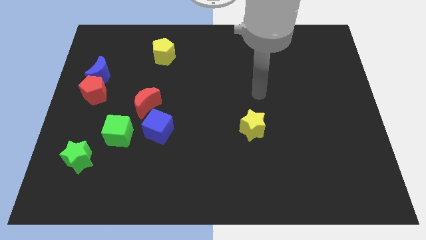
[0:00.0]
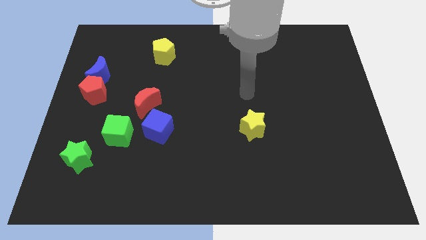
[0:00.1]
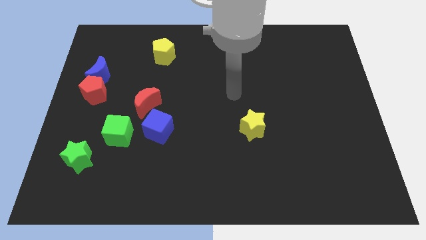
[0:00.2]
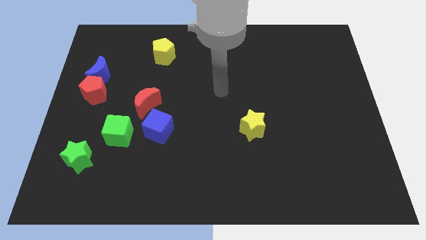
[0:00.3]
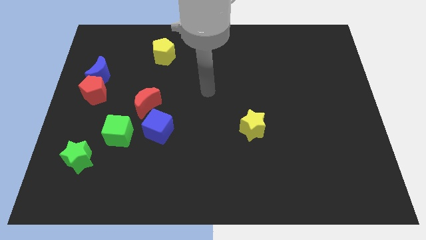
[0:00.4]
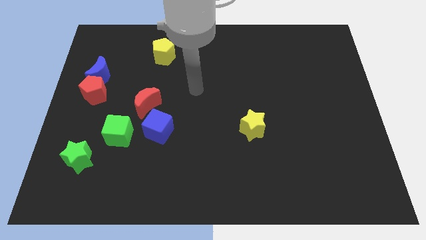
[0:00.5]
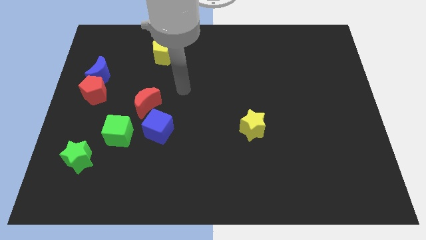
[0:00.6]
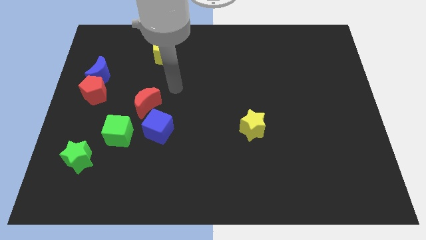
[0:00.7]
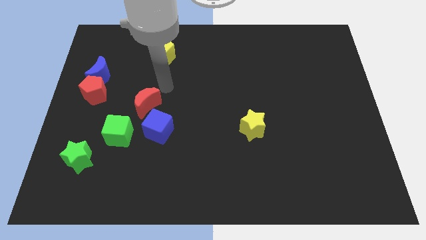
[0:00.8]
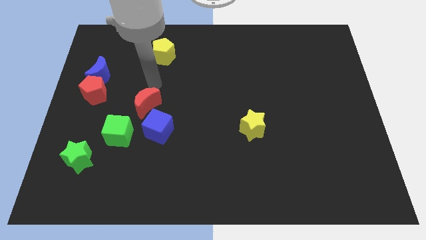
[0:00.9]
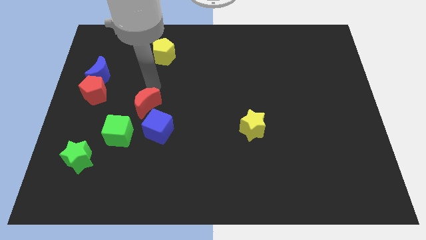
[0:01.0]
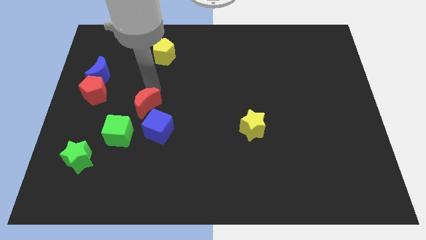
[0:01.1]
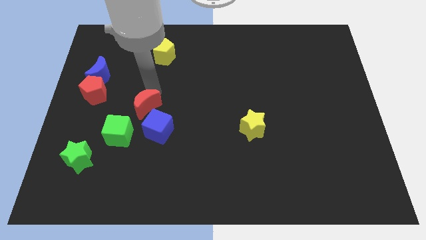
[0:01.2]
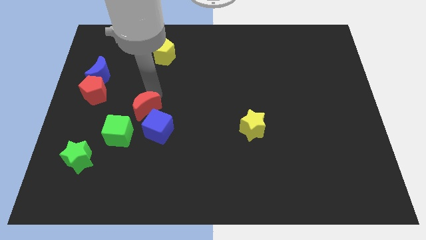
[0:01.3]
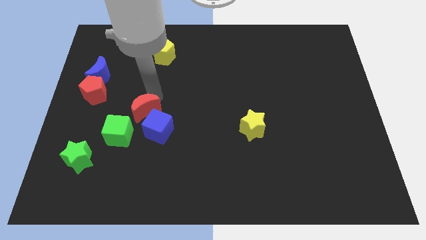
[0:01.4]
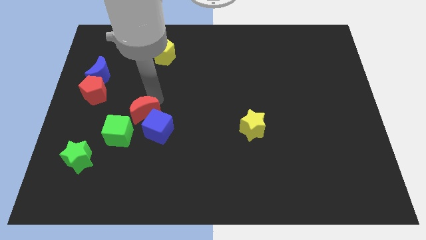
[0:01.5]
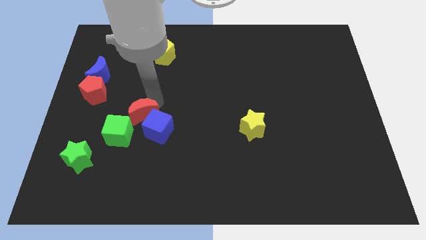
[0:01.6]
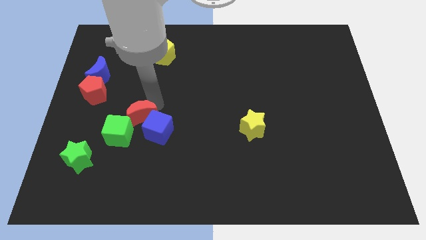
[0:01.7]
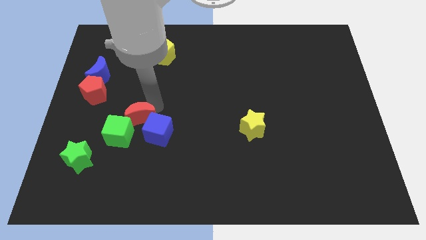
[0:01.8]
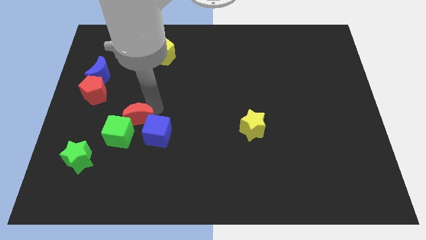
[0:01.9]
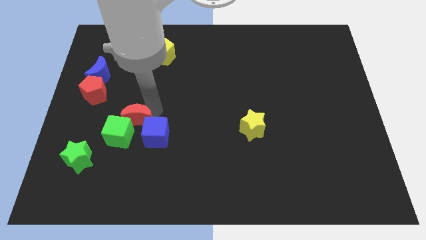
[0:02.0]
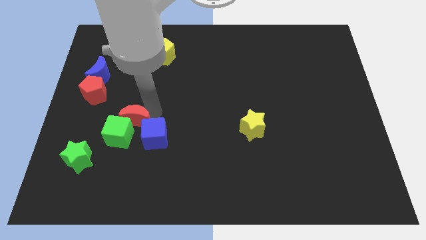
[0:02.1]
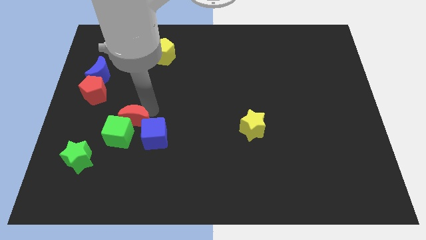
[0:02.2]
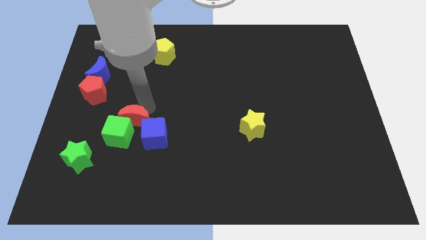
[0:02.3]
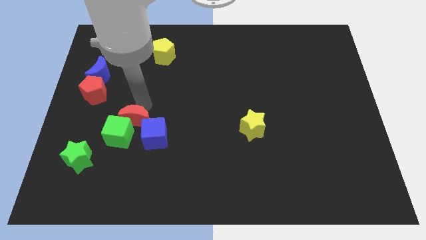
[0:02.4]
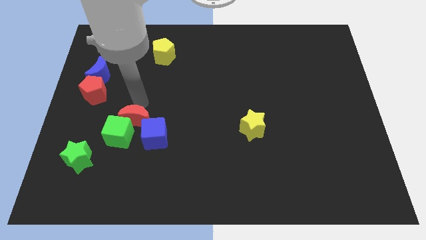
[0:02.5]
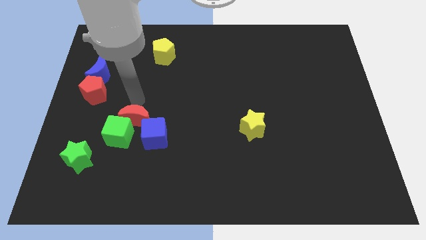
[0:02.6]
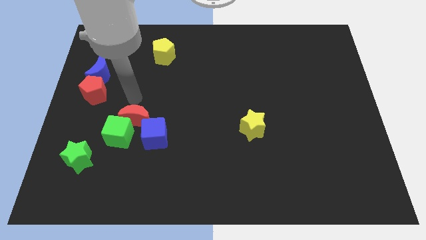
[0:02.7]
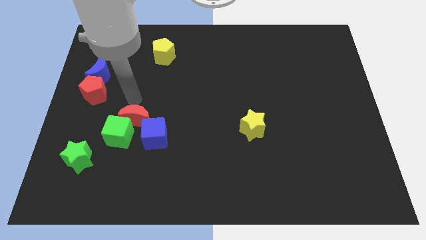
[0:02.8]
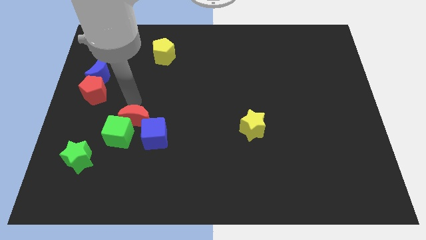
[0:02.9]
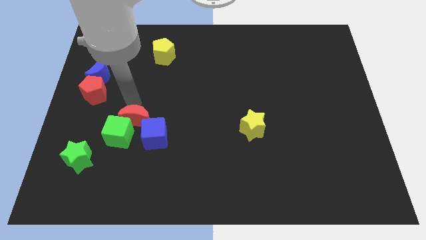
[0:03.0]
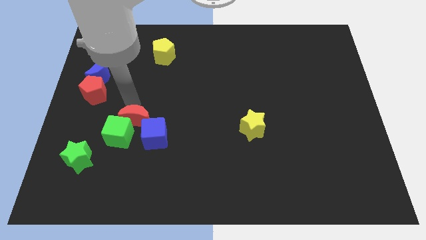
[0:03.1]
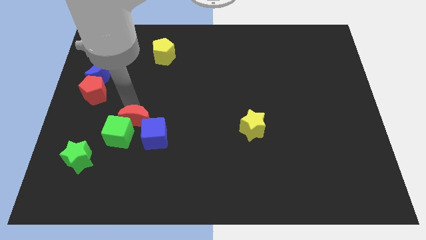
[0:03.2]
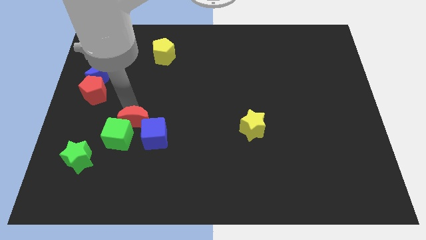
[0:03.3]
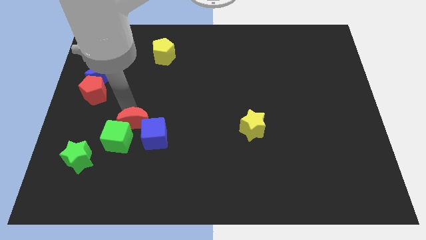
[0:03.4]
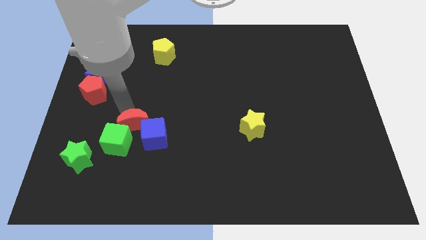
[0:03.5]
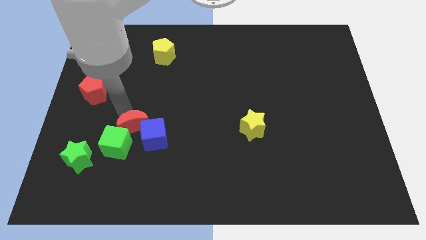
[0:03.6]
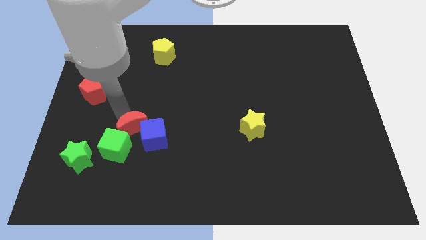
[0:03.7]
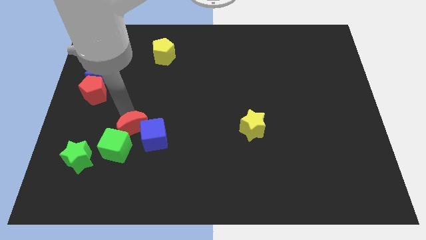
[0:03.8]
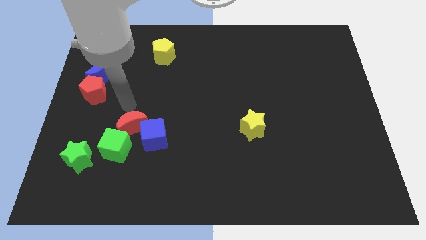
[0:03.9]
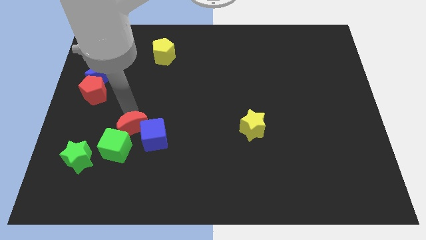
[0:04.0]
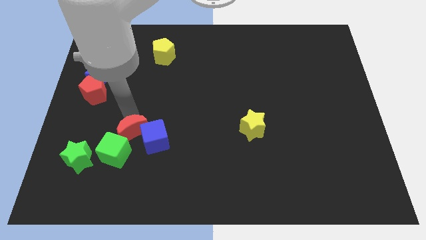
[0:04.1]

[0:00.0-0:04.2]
slide the red moon down somewhat

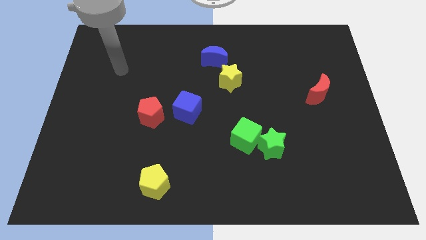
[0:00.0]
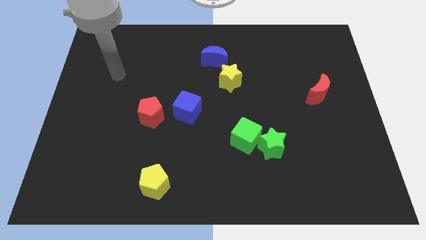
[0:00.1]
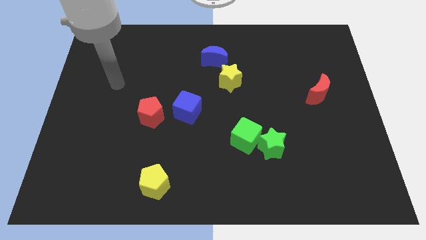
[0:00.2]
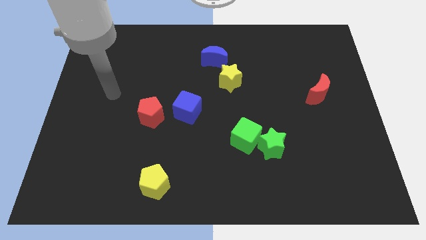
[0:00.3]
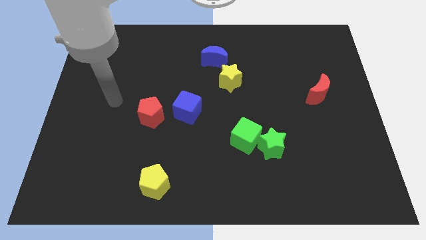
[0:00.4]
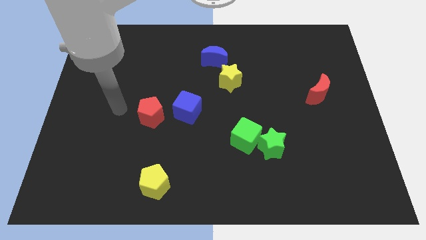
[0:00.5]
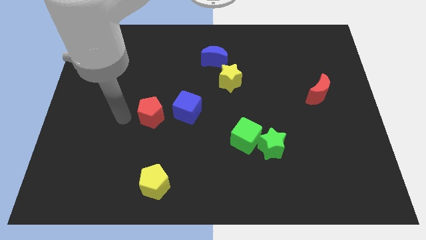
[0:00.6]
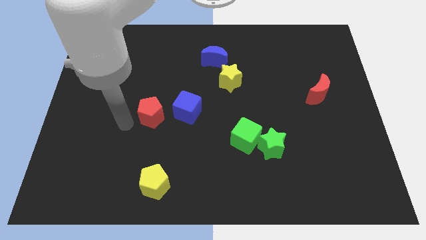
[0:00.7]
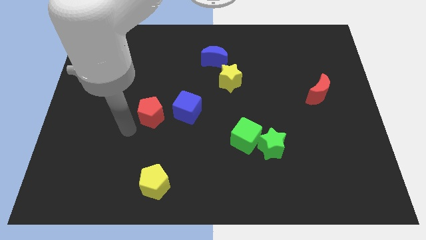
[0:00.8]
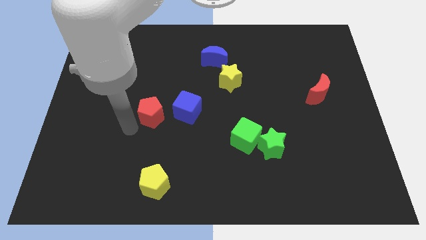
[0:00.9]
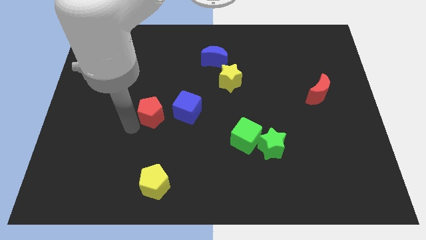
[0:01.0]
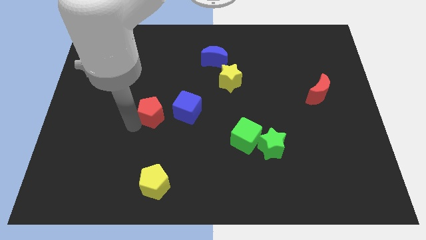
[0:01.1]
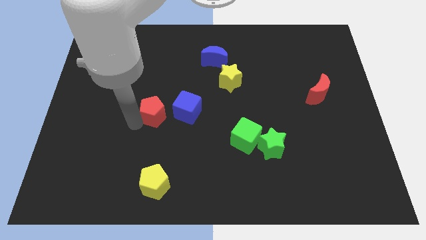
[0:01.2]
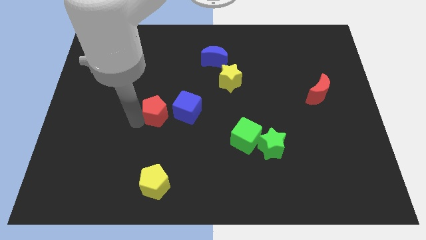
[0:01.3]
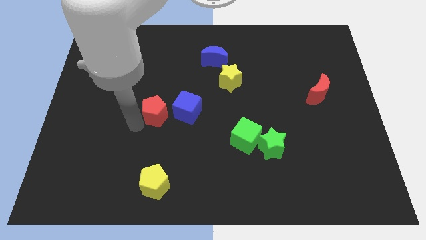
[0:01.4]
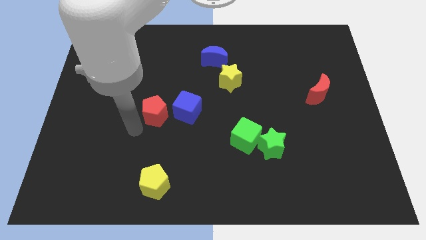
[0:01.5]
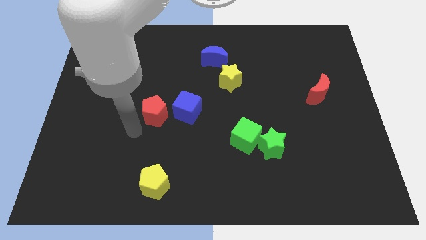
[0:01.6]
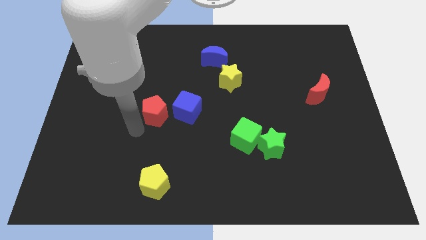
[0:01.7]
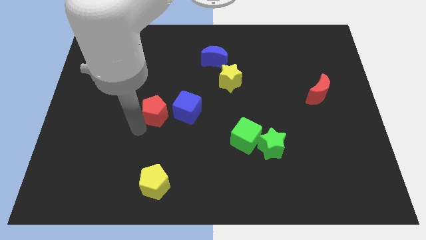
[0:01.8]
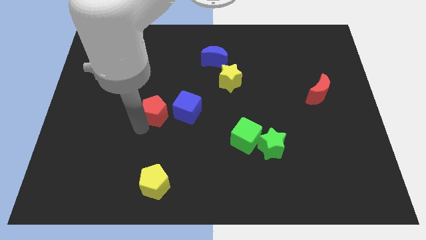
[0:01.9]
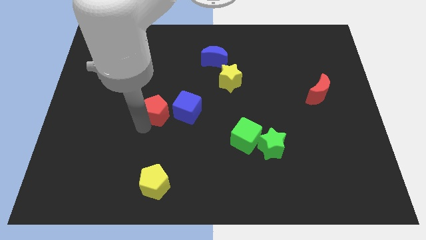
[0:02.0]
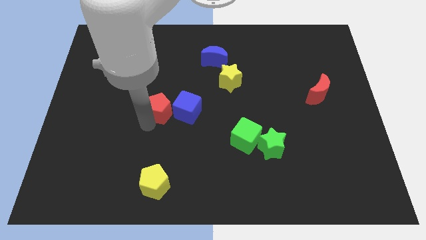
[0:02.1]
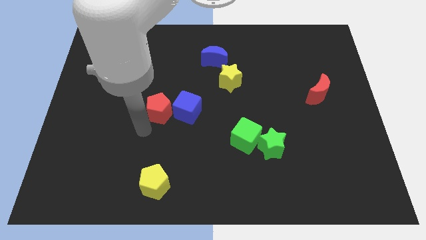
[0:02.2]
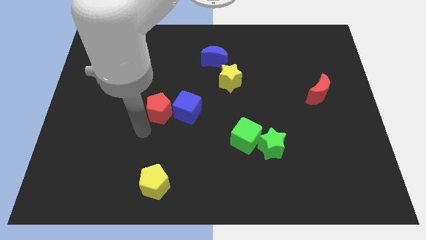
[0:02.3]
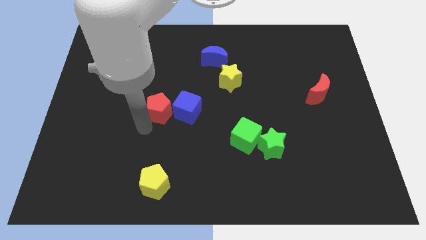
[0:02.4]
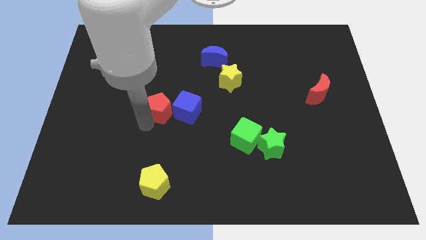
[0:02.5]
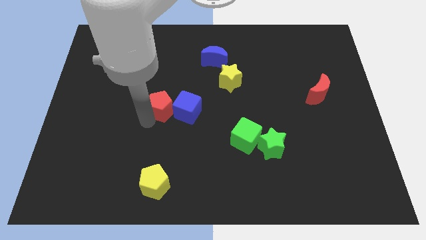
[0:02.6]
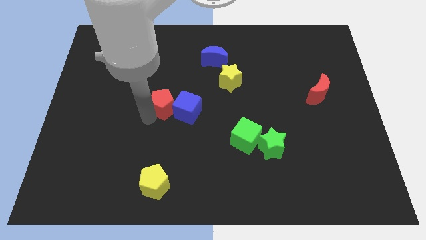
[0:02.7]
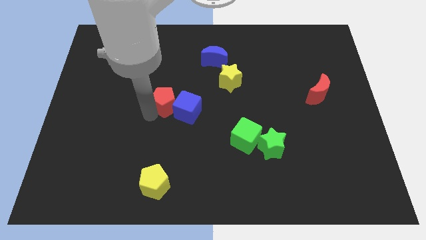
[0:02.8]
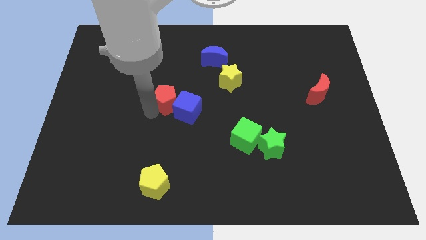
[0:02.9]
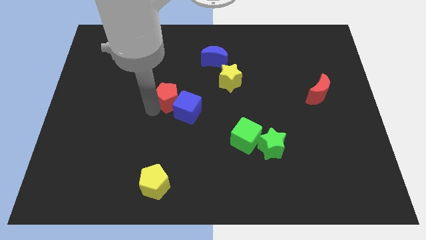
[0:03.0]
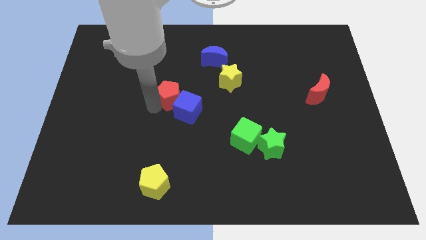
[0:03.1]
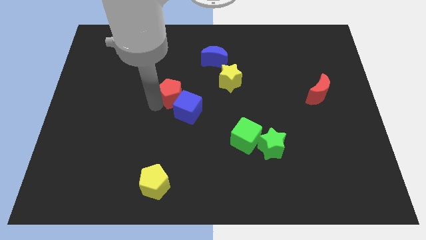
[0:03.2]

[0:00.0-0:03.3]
slightly push the red pentagon upwards and right diagonally

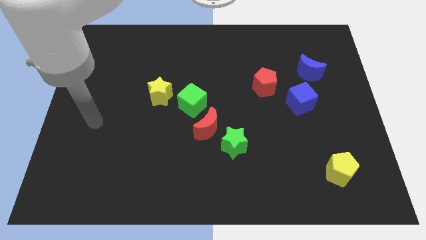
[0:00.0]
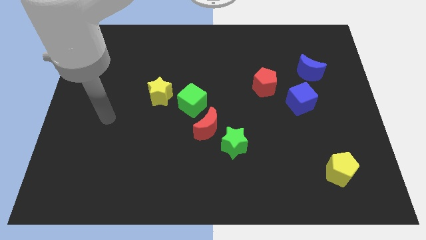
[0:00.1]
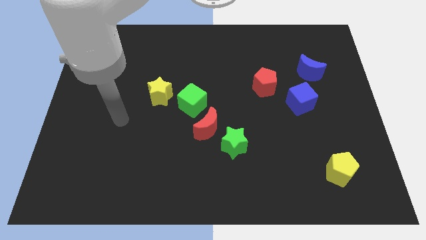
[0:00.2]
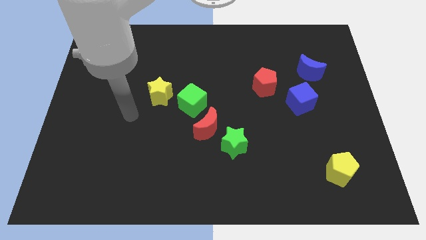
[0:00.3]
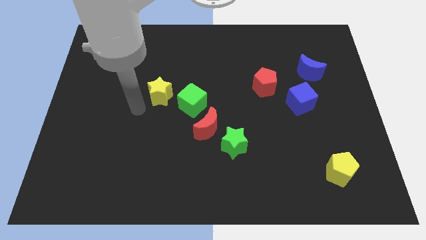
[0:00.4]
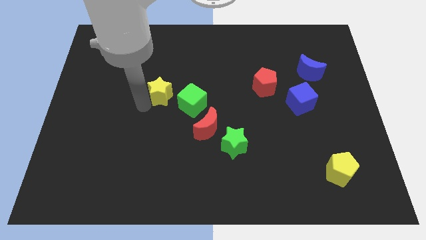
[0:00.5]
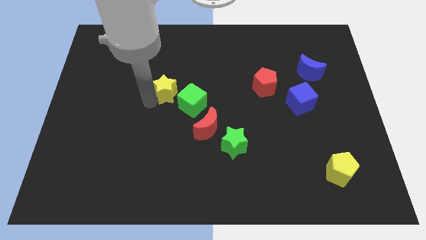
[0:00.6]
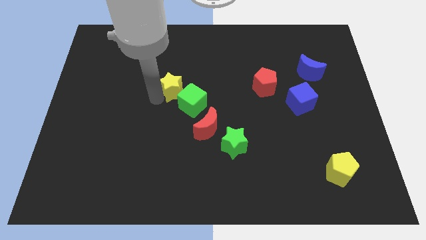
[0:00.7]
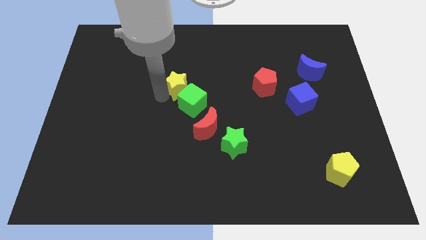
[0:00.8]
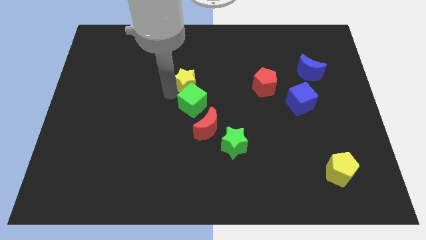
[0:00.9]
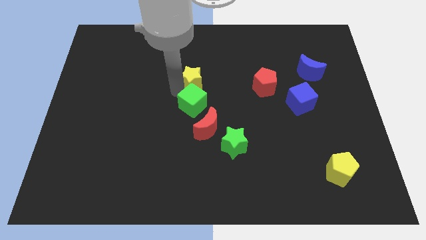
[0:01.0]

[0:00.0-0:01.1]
move the yellow star a little bit up and then to the right
